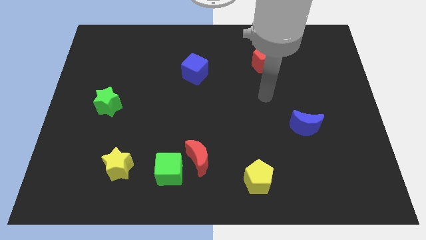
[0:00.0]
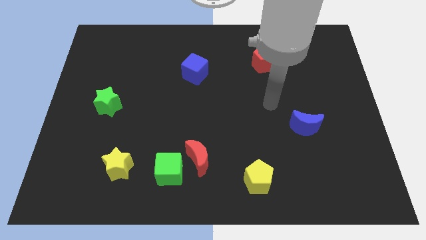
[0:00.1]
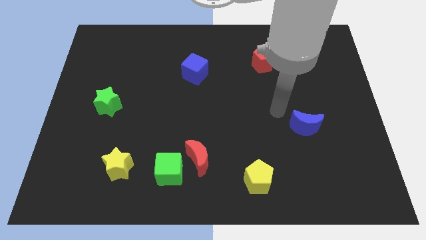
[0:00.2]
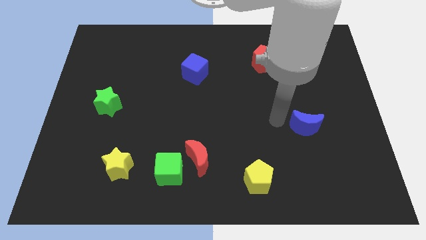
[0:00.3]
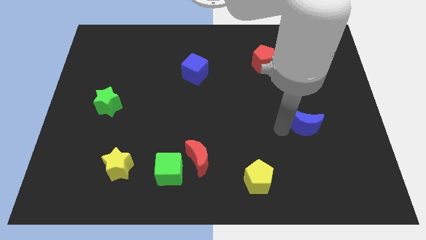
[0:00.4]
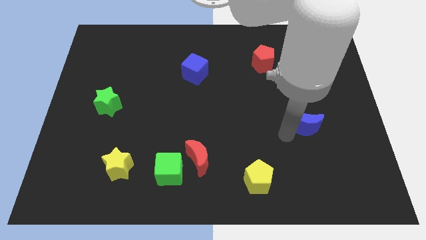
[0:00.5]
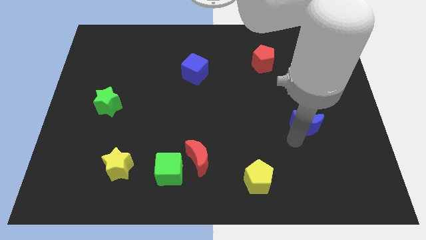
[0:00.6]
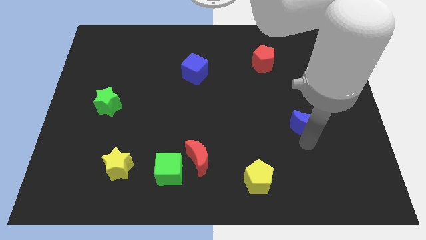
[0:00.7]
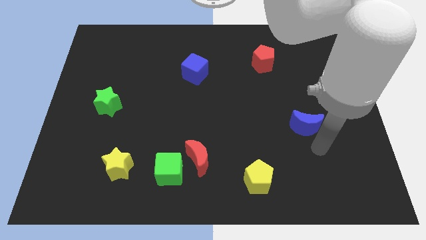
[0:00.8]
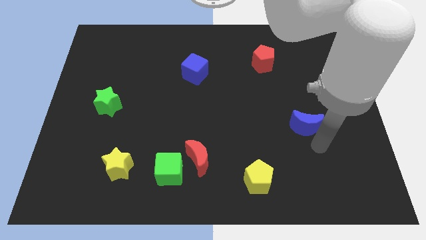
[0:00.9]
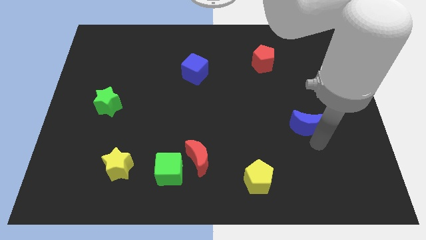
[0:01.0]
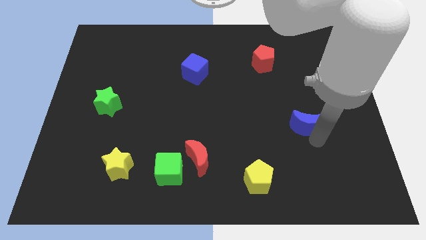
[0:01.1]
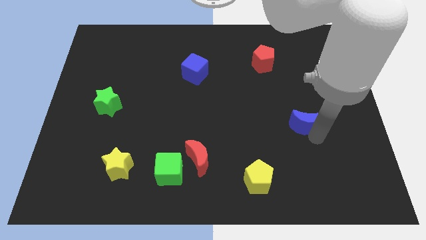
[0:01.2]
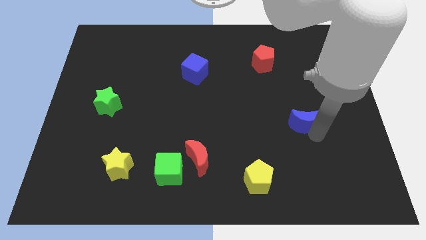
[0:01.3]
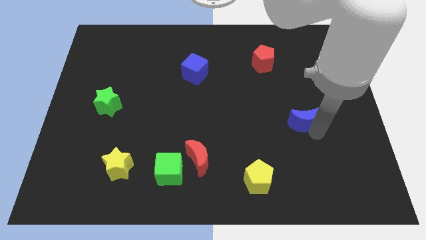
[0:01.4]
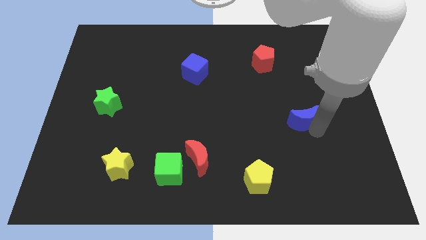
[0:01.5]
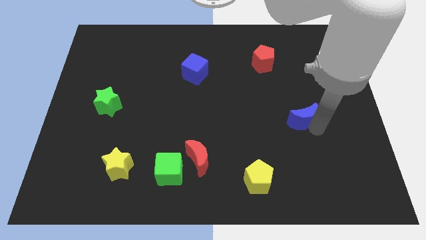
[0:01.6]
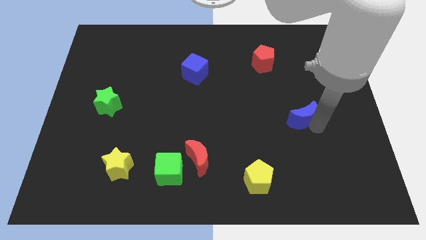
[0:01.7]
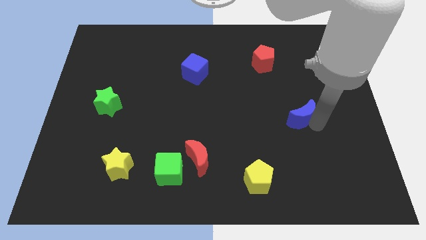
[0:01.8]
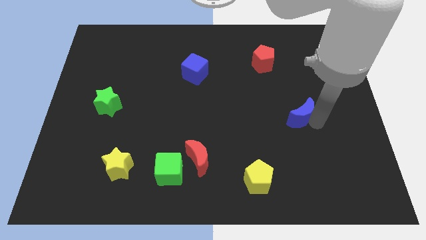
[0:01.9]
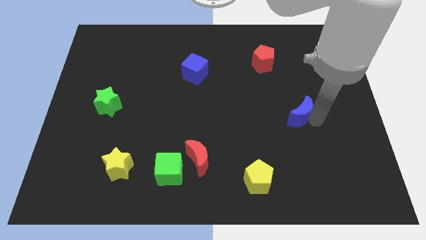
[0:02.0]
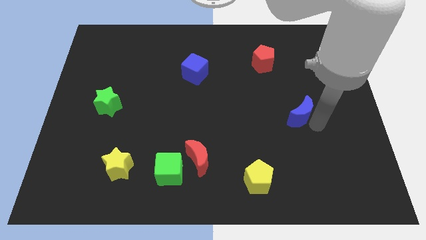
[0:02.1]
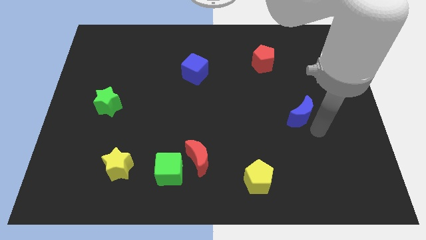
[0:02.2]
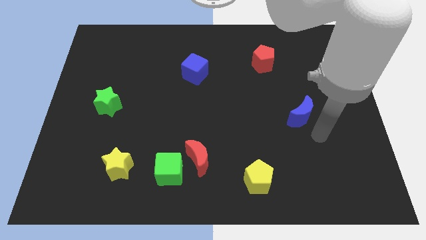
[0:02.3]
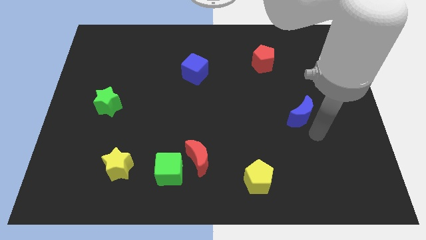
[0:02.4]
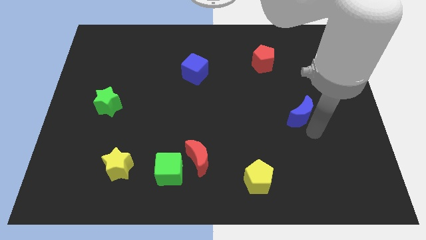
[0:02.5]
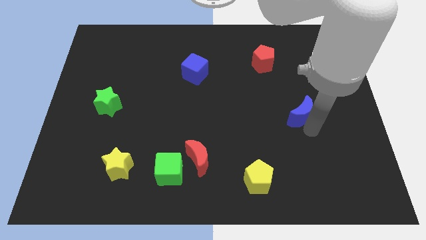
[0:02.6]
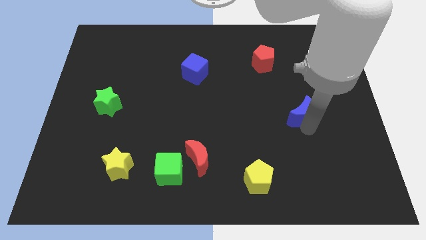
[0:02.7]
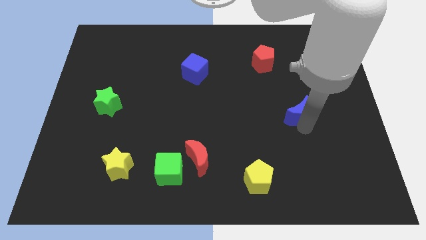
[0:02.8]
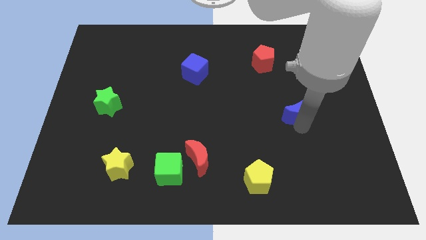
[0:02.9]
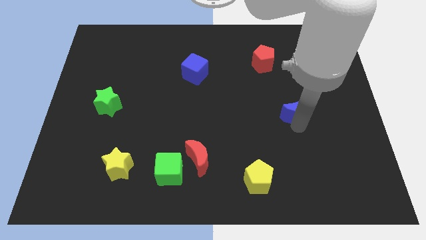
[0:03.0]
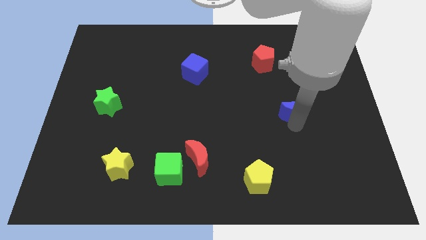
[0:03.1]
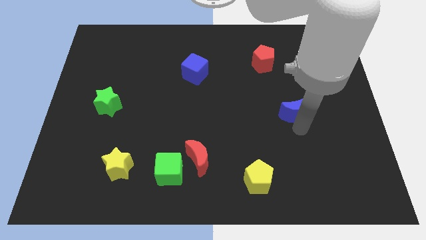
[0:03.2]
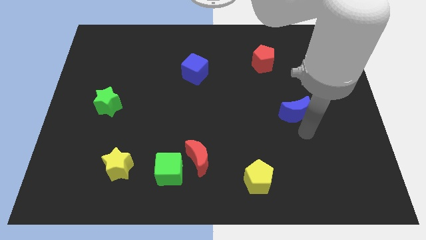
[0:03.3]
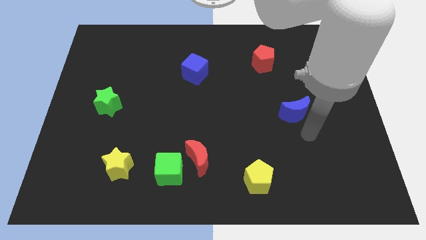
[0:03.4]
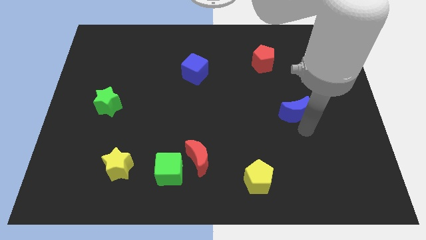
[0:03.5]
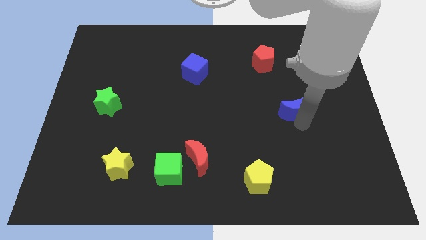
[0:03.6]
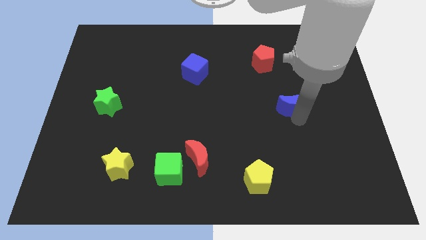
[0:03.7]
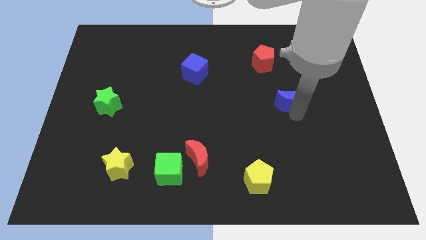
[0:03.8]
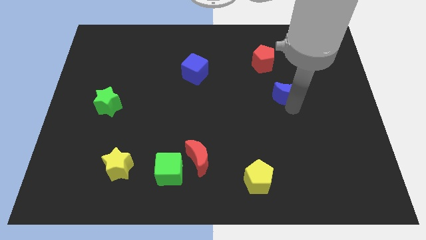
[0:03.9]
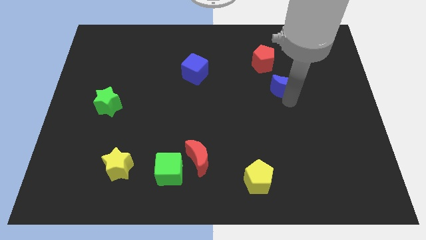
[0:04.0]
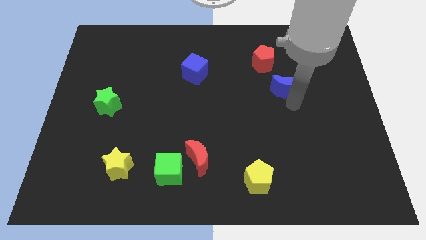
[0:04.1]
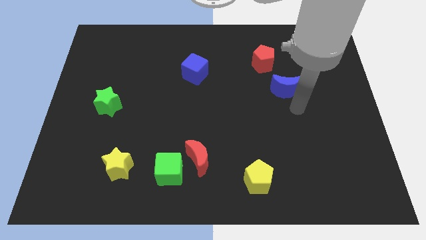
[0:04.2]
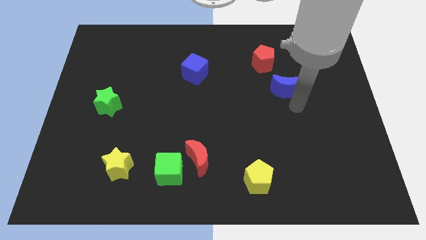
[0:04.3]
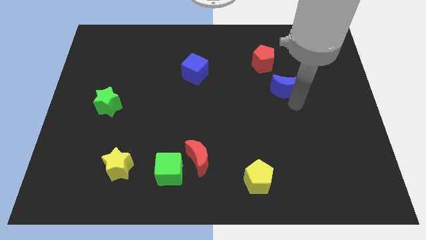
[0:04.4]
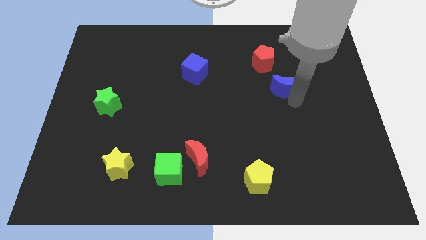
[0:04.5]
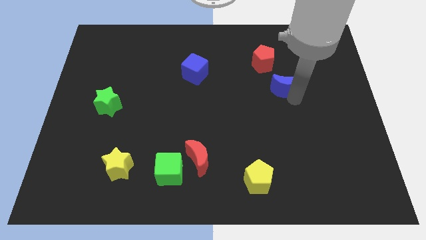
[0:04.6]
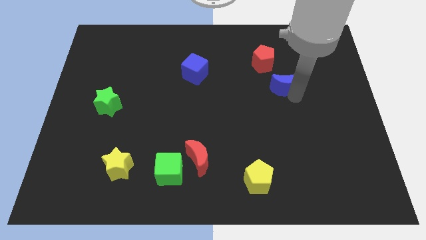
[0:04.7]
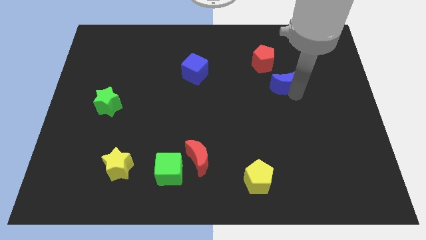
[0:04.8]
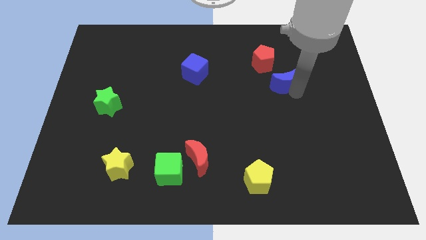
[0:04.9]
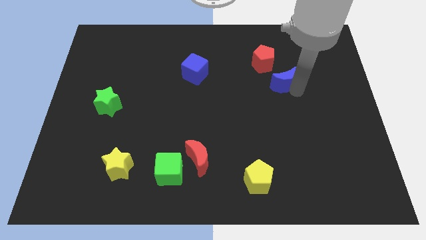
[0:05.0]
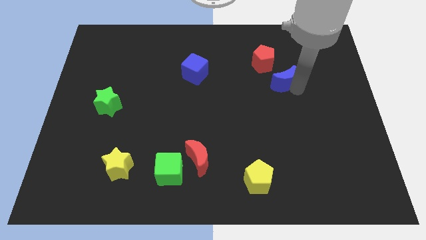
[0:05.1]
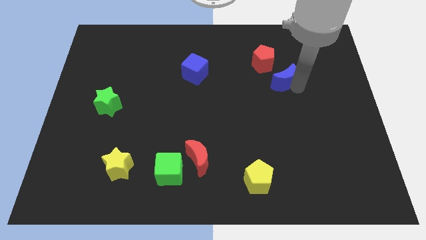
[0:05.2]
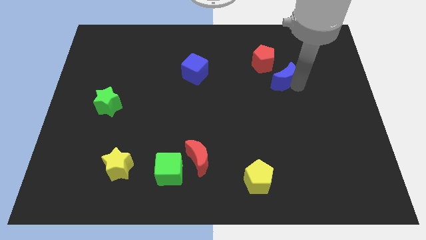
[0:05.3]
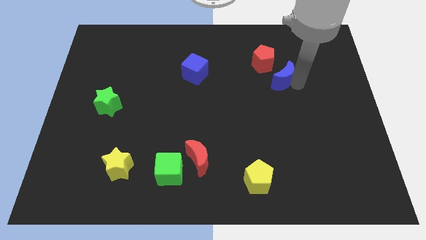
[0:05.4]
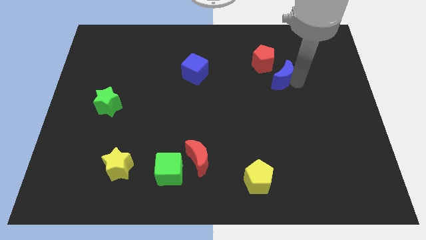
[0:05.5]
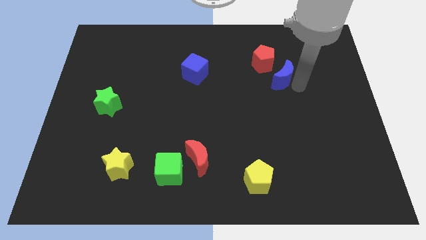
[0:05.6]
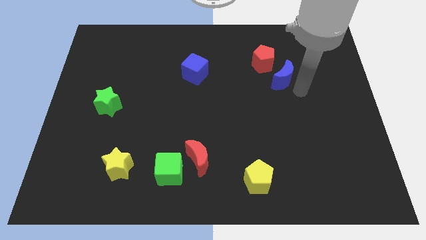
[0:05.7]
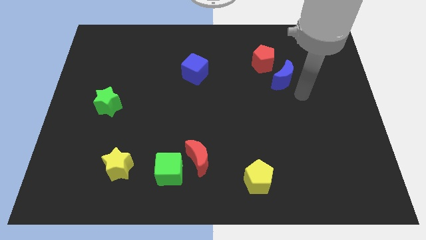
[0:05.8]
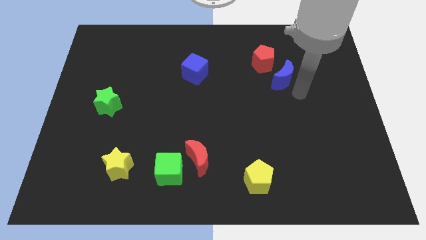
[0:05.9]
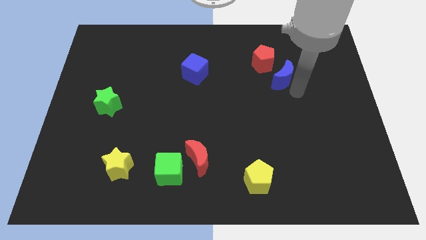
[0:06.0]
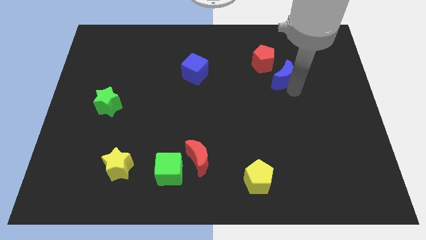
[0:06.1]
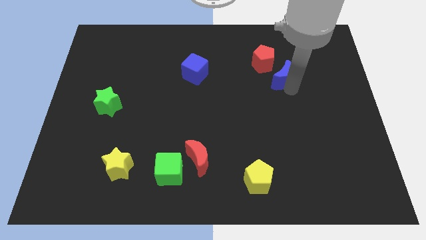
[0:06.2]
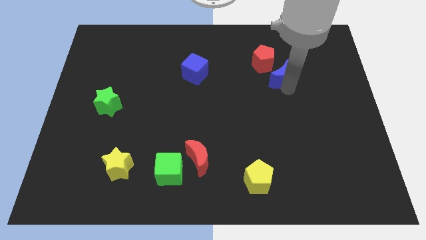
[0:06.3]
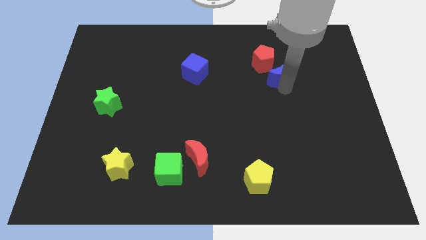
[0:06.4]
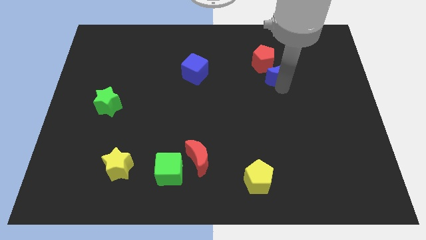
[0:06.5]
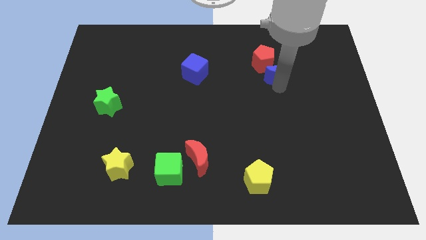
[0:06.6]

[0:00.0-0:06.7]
slide the blue moon next to the red pentagon

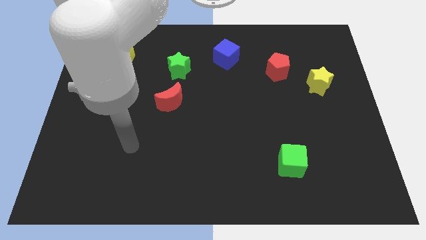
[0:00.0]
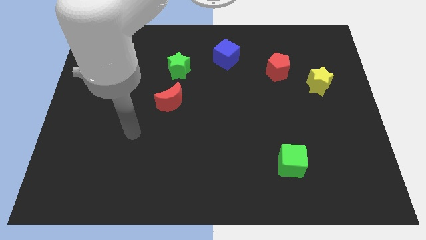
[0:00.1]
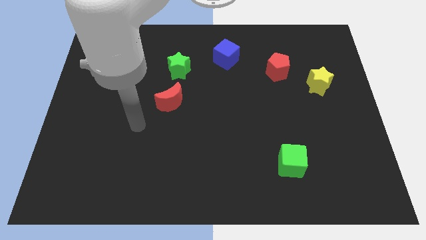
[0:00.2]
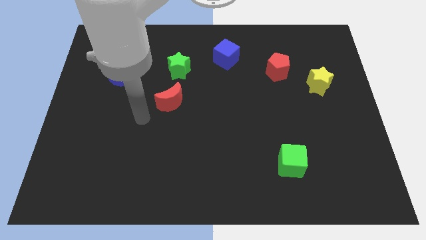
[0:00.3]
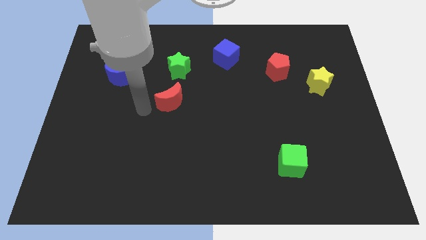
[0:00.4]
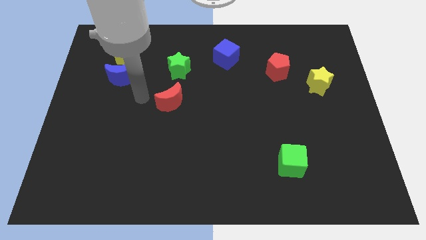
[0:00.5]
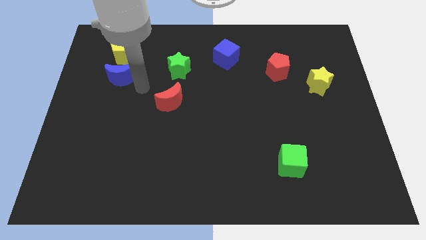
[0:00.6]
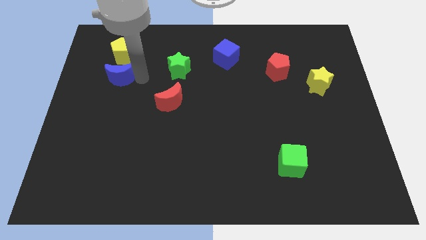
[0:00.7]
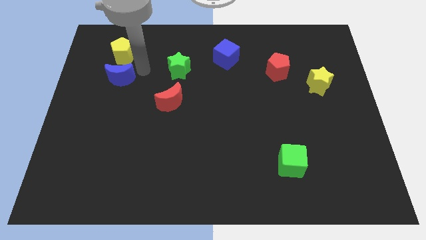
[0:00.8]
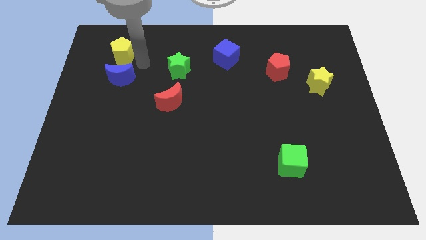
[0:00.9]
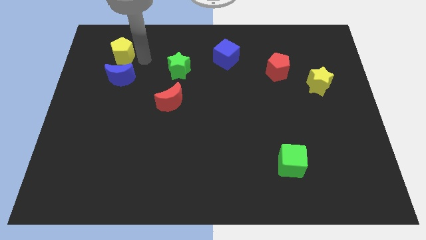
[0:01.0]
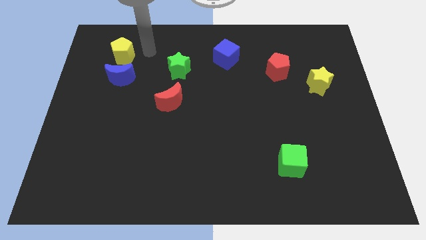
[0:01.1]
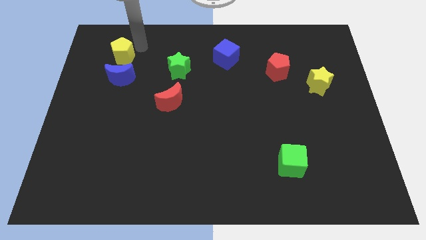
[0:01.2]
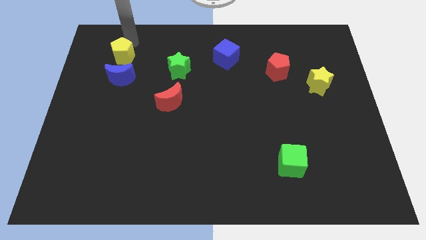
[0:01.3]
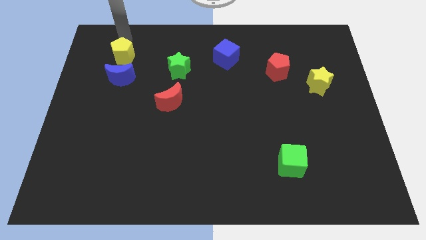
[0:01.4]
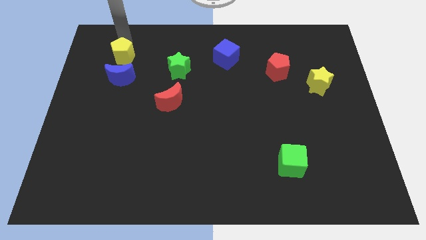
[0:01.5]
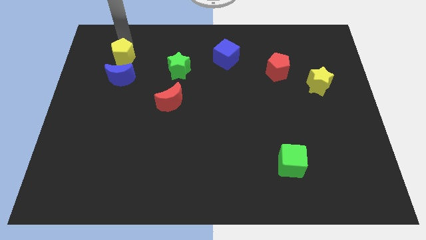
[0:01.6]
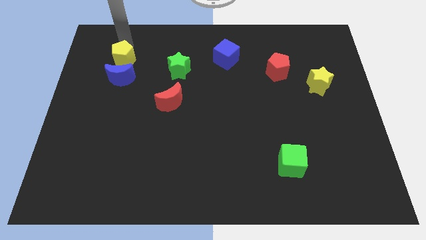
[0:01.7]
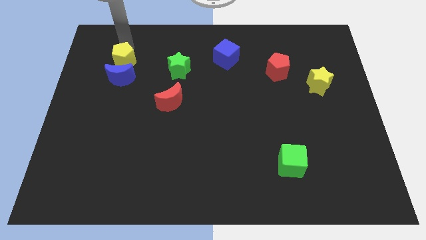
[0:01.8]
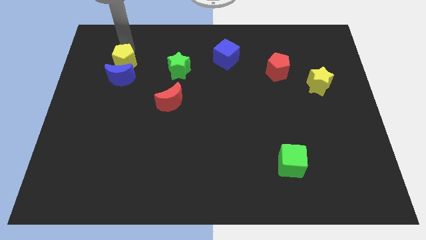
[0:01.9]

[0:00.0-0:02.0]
push the yellow pentagon close to the blue moon
